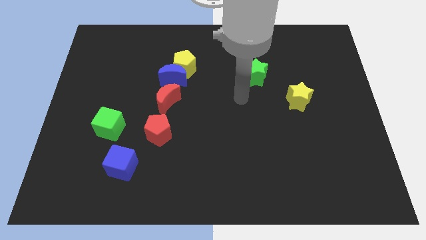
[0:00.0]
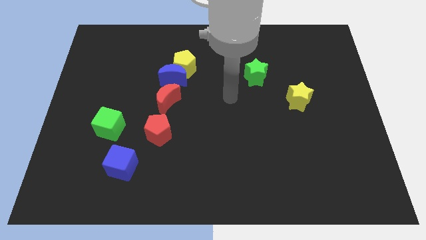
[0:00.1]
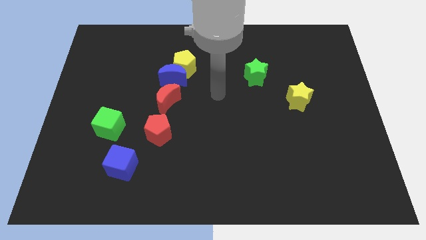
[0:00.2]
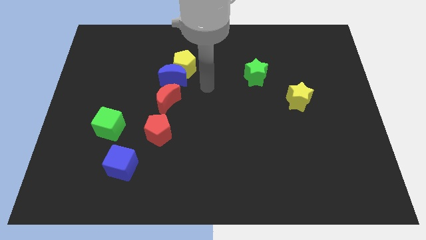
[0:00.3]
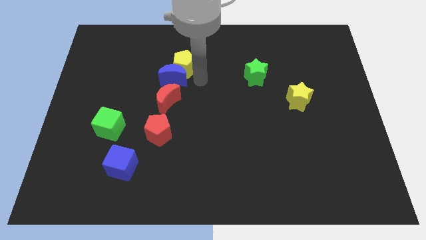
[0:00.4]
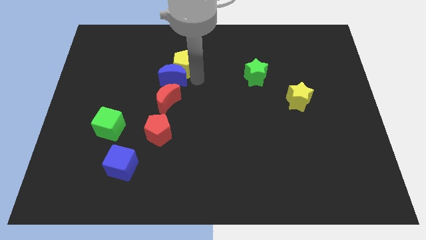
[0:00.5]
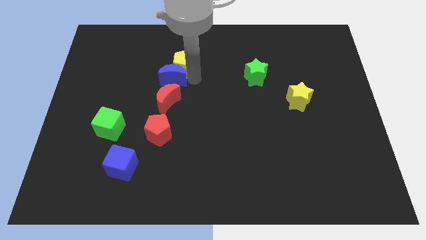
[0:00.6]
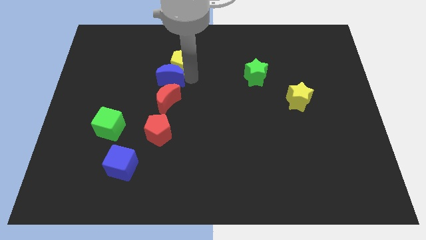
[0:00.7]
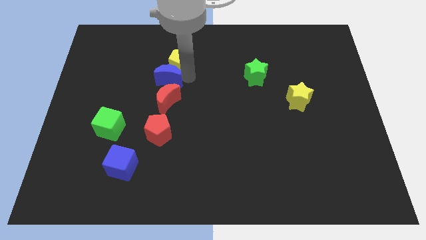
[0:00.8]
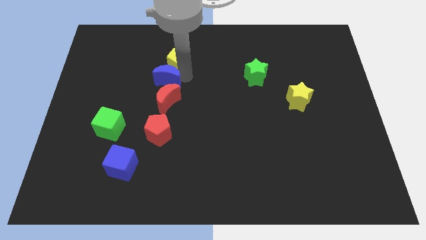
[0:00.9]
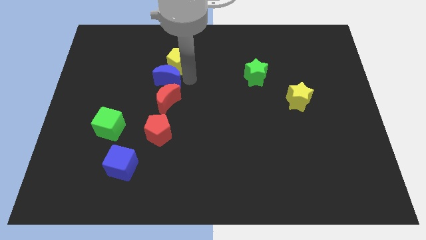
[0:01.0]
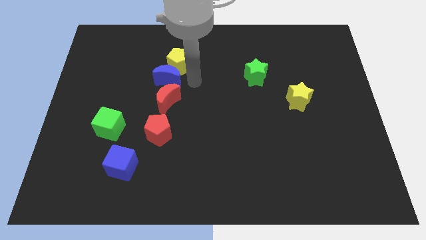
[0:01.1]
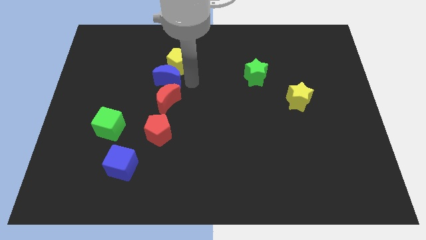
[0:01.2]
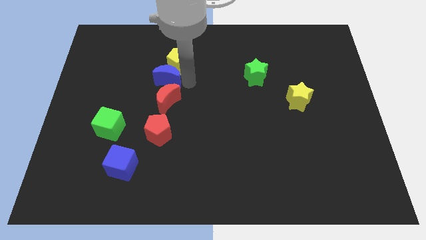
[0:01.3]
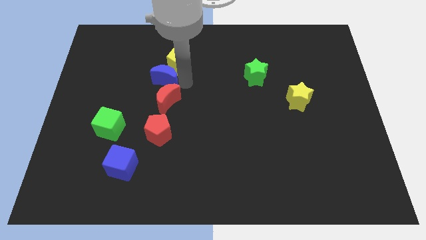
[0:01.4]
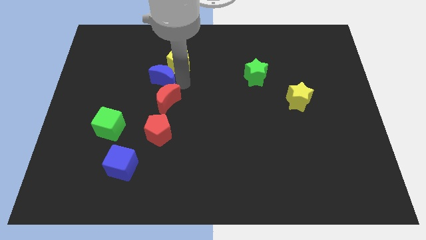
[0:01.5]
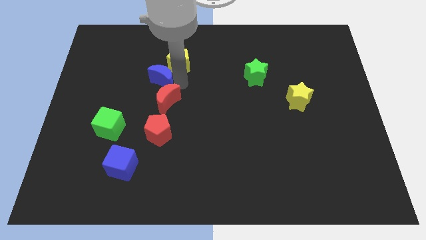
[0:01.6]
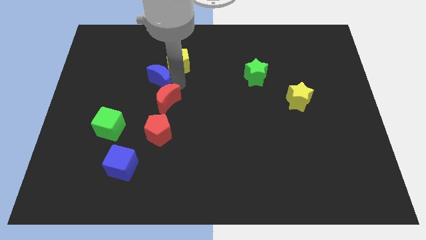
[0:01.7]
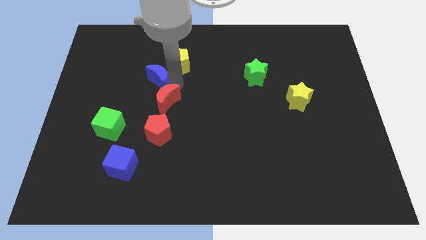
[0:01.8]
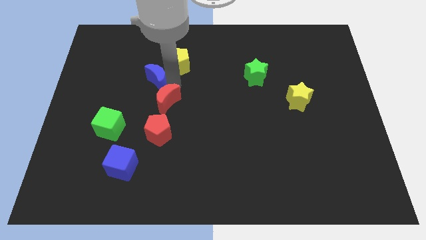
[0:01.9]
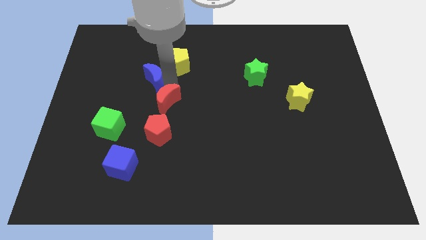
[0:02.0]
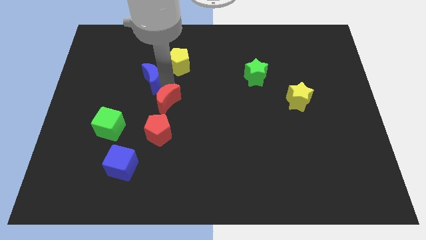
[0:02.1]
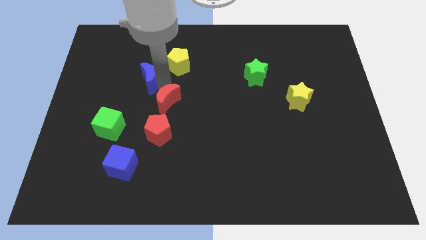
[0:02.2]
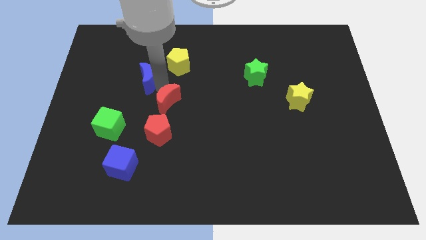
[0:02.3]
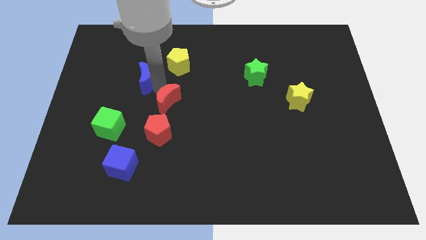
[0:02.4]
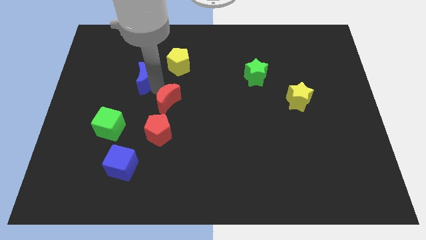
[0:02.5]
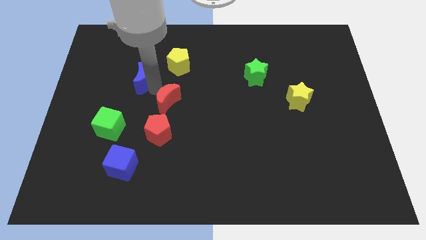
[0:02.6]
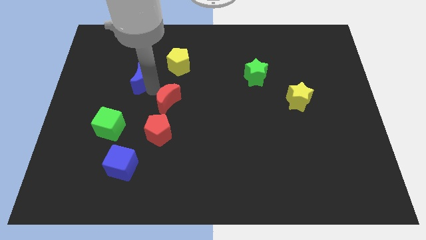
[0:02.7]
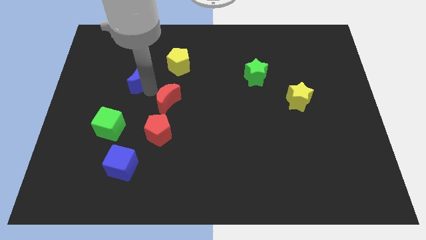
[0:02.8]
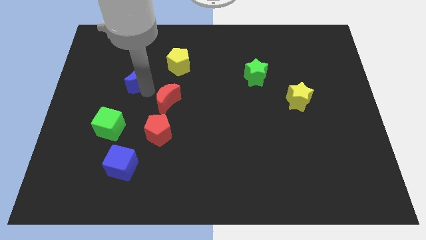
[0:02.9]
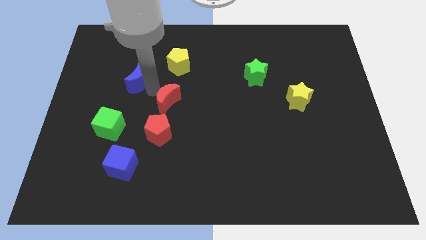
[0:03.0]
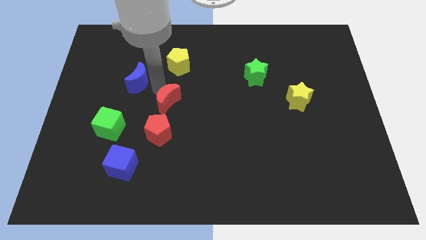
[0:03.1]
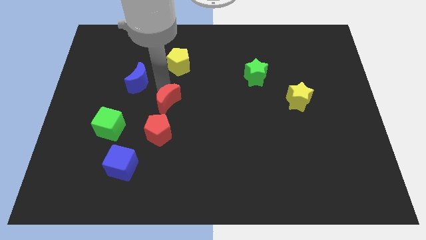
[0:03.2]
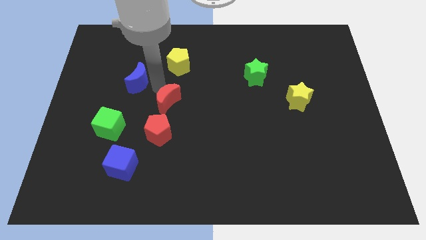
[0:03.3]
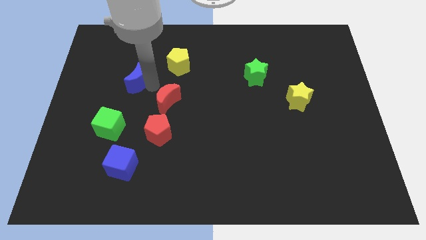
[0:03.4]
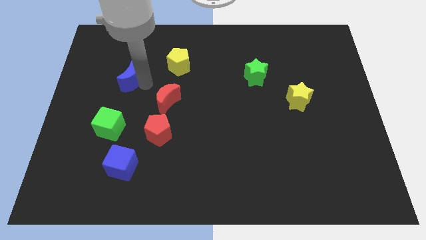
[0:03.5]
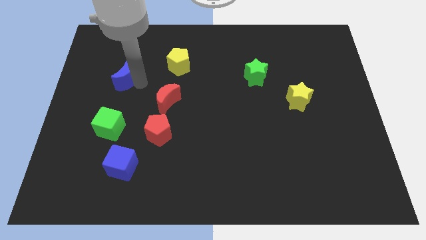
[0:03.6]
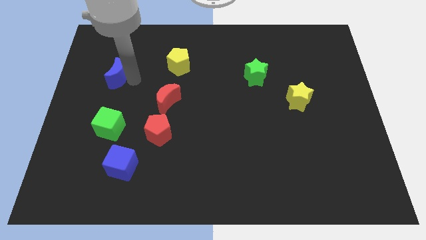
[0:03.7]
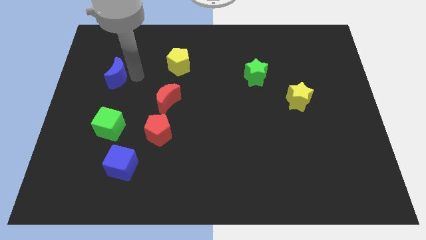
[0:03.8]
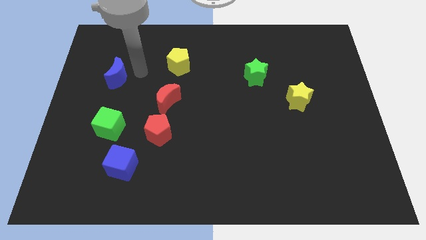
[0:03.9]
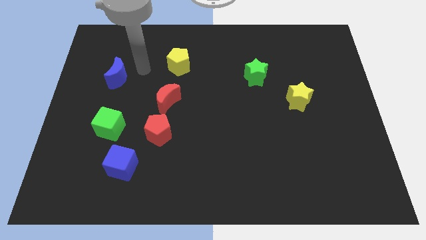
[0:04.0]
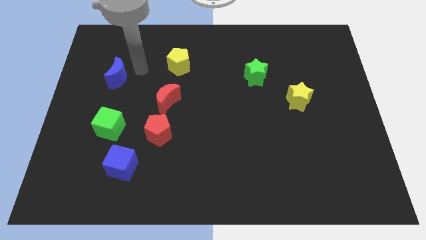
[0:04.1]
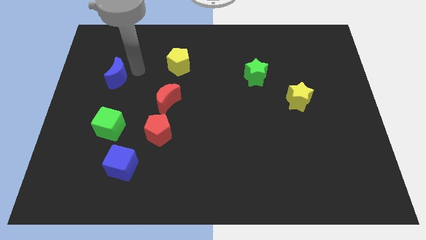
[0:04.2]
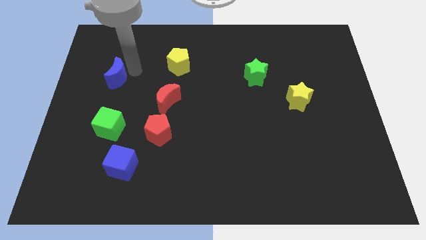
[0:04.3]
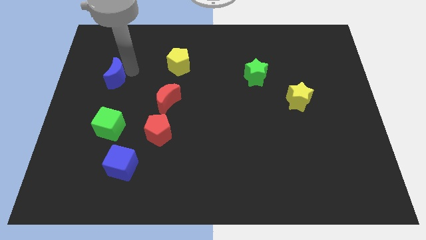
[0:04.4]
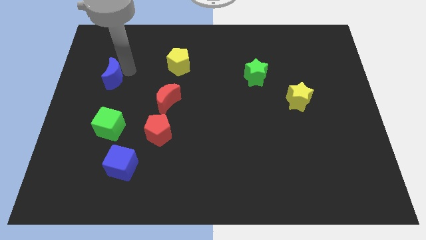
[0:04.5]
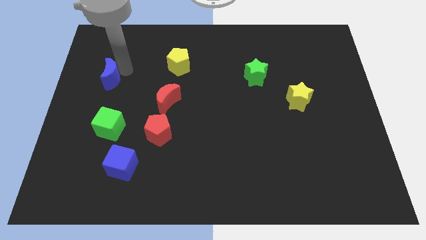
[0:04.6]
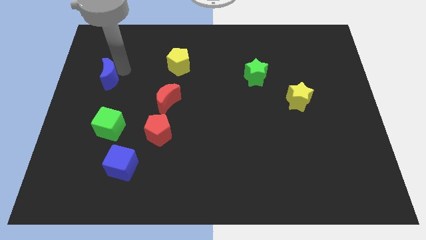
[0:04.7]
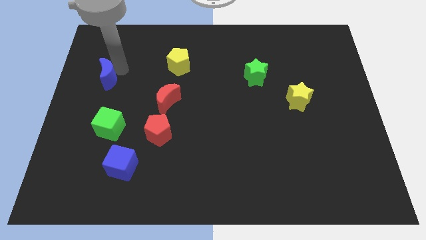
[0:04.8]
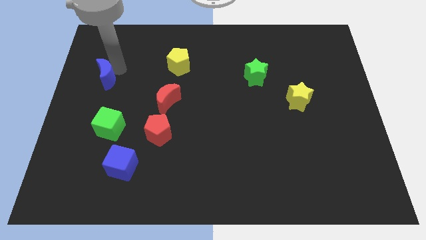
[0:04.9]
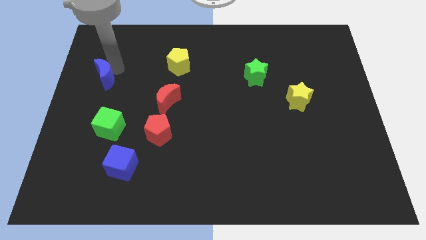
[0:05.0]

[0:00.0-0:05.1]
put the blue moon to the left side of the board

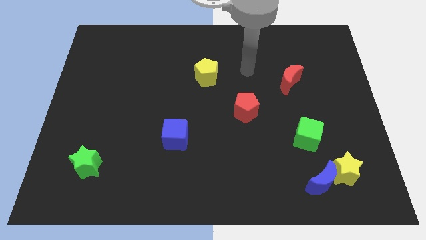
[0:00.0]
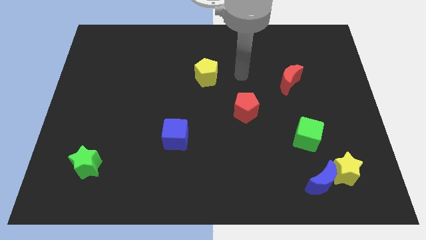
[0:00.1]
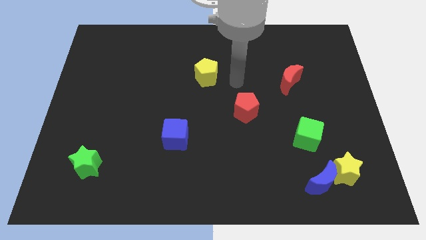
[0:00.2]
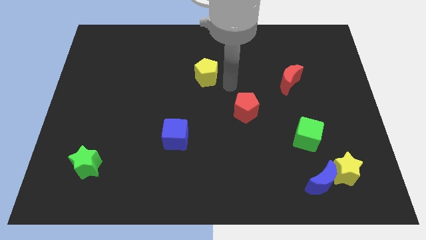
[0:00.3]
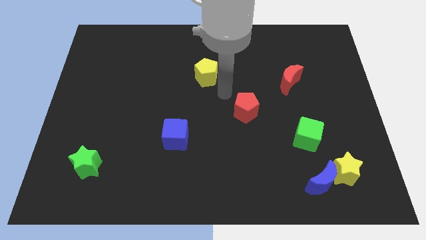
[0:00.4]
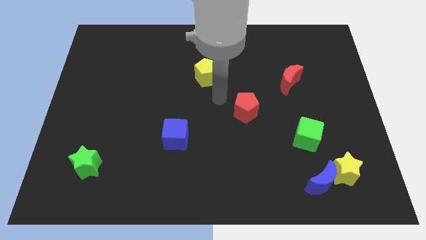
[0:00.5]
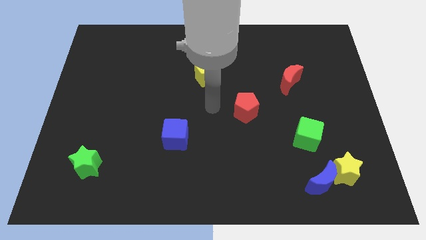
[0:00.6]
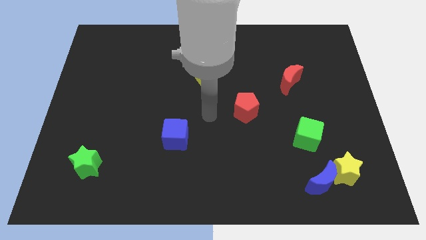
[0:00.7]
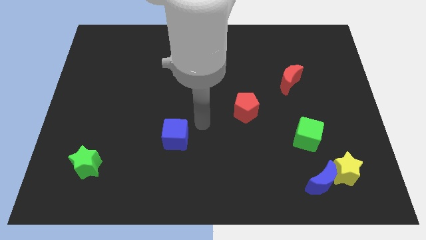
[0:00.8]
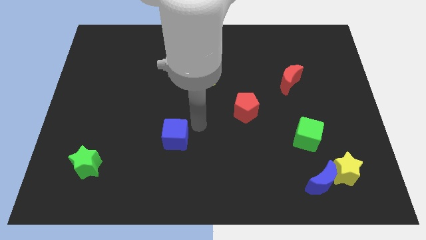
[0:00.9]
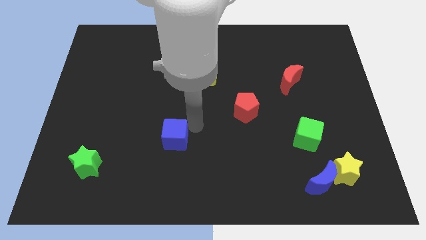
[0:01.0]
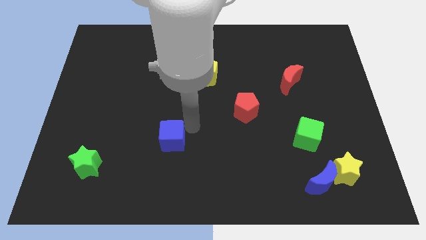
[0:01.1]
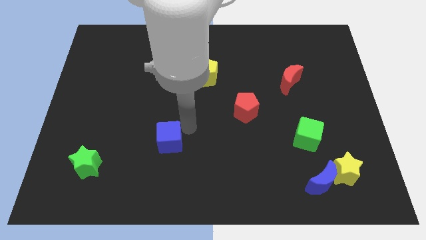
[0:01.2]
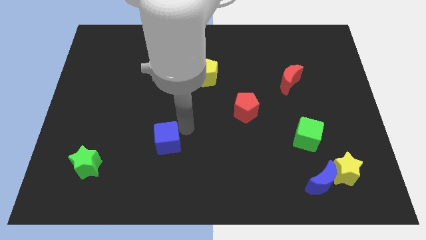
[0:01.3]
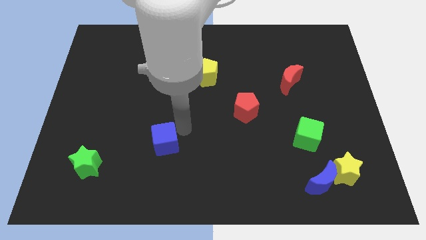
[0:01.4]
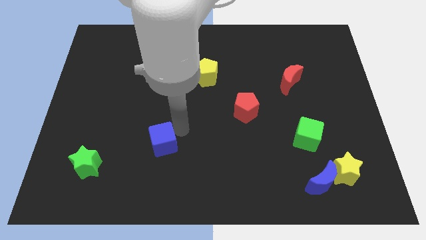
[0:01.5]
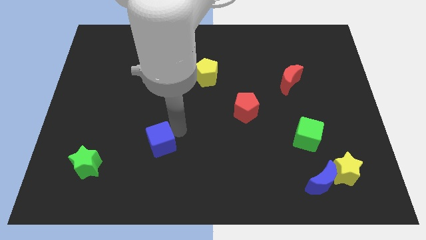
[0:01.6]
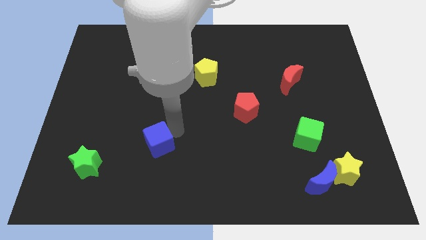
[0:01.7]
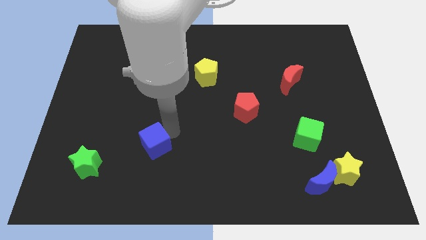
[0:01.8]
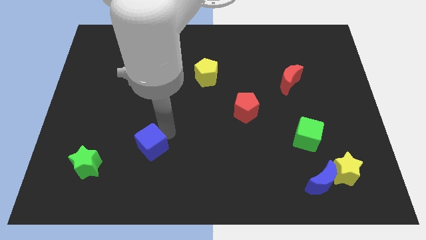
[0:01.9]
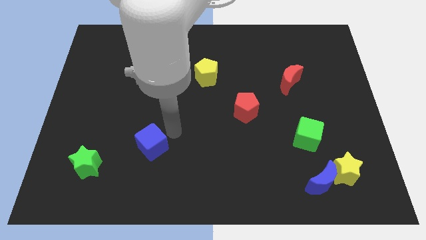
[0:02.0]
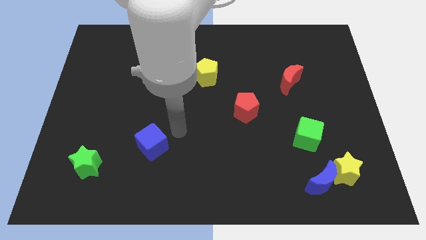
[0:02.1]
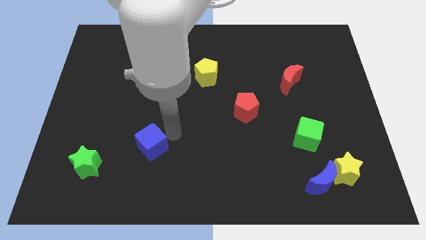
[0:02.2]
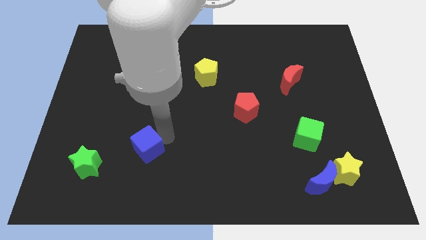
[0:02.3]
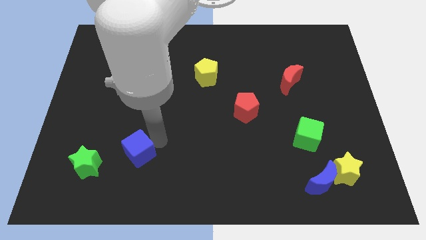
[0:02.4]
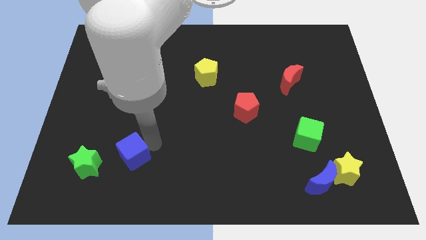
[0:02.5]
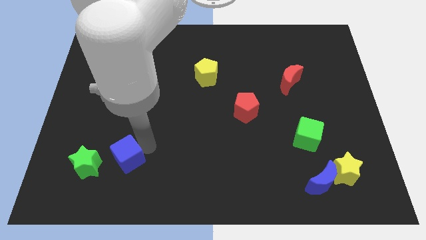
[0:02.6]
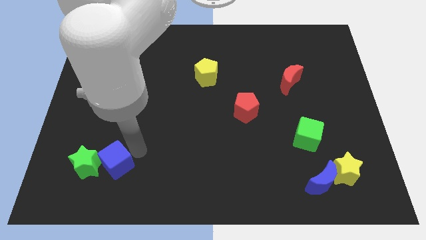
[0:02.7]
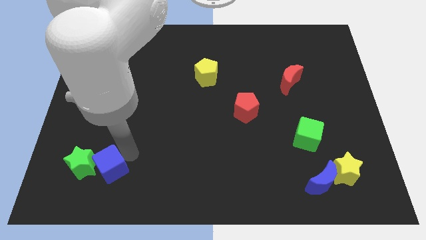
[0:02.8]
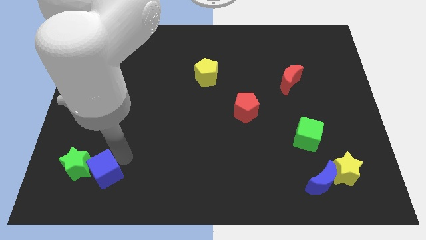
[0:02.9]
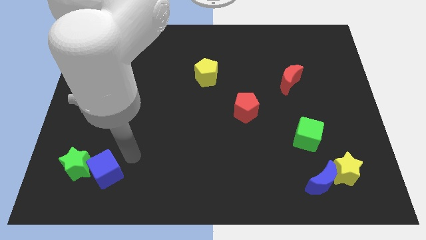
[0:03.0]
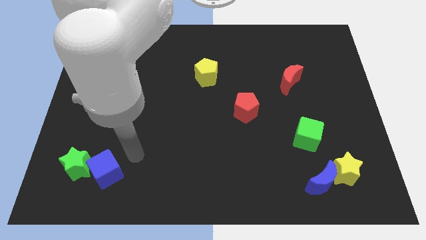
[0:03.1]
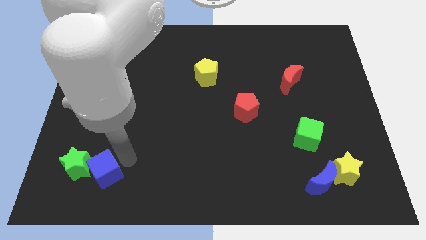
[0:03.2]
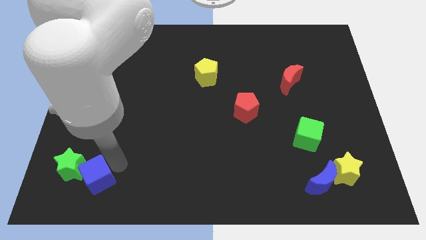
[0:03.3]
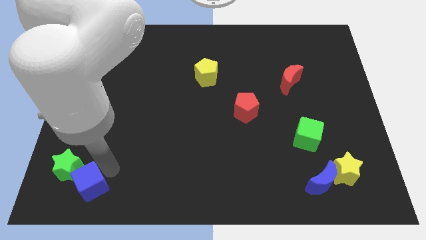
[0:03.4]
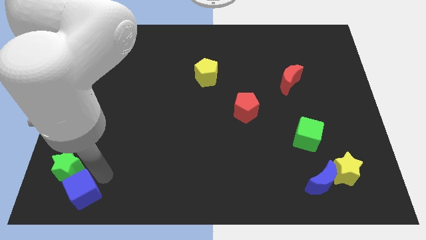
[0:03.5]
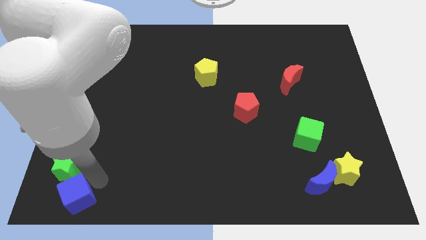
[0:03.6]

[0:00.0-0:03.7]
slide the blue cube to the bottom left of the board
